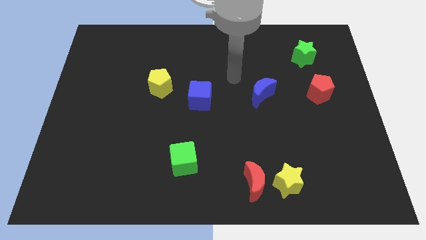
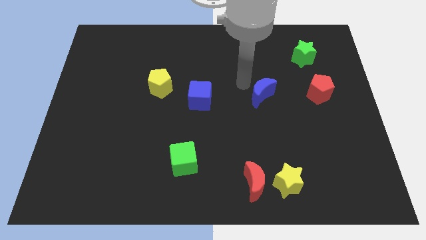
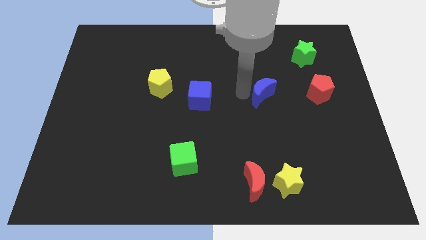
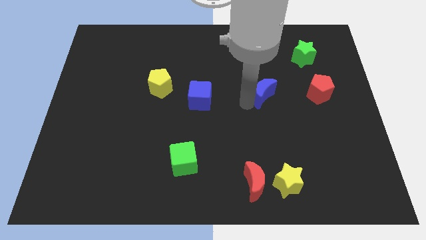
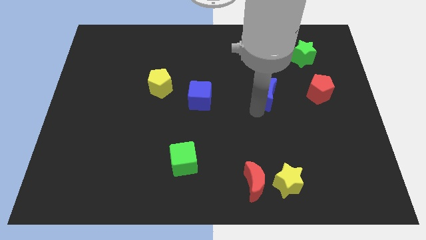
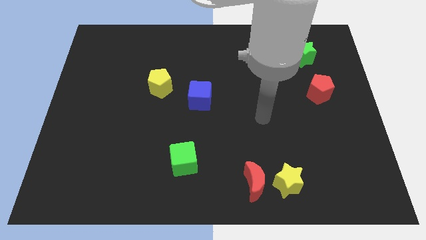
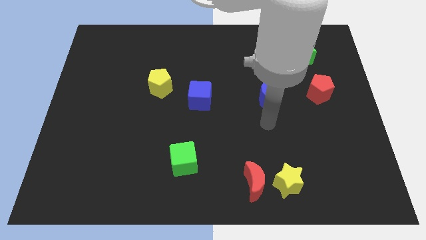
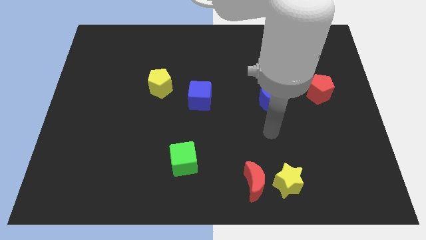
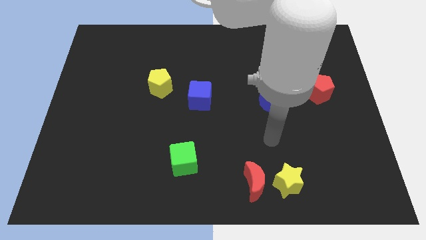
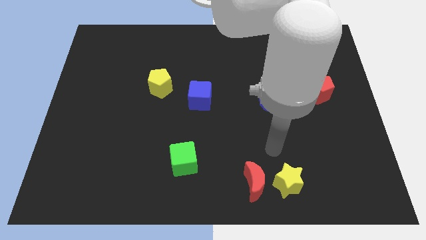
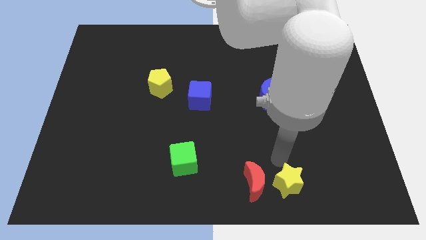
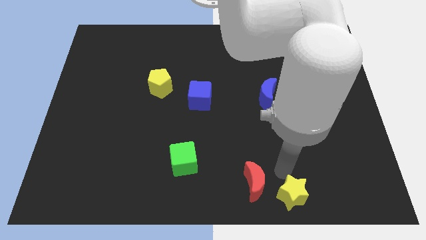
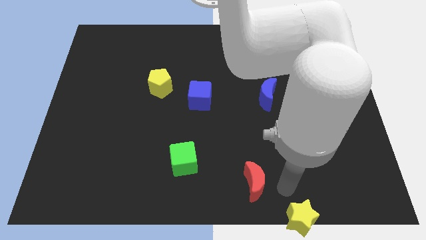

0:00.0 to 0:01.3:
move the red moon away from the yellow star

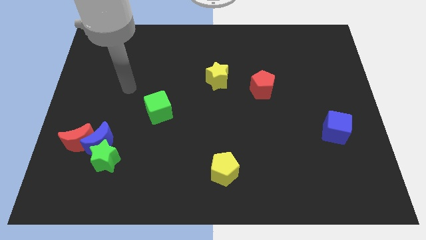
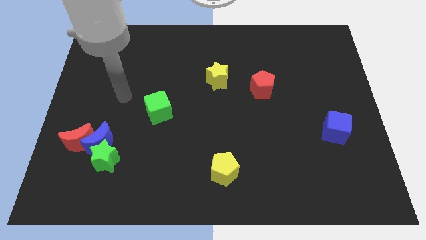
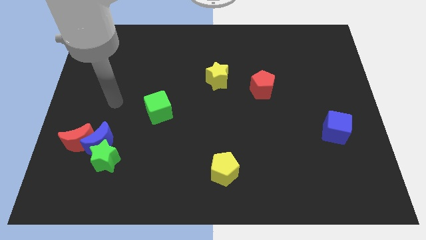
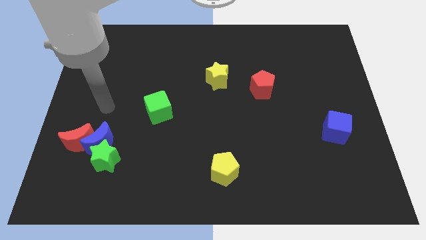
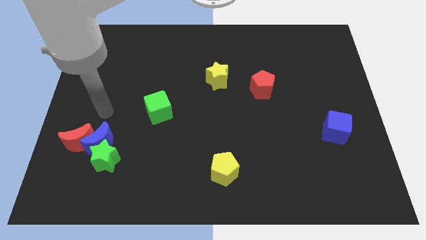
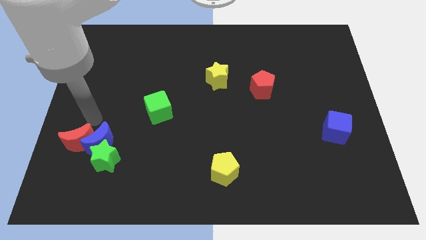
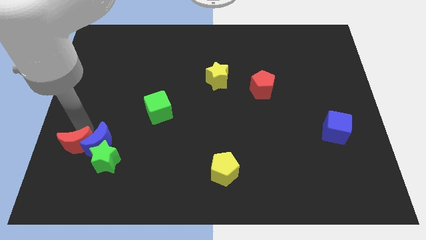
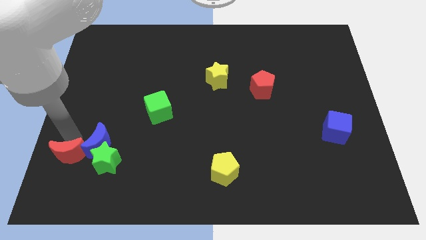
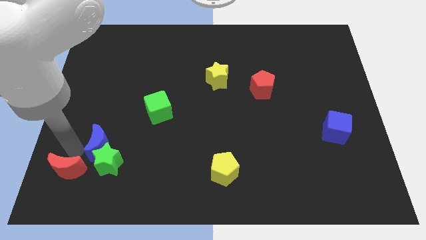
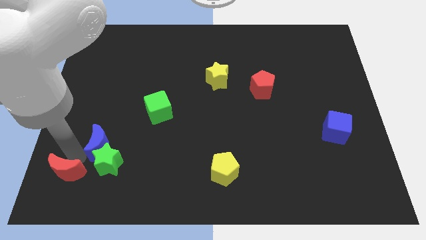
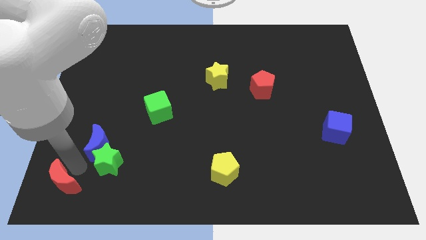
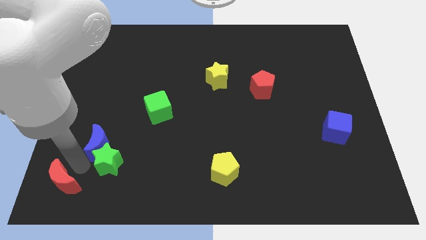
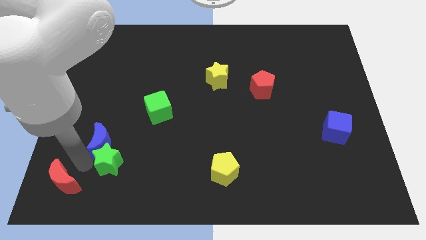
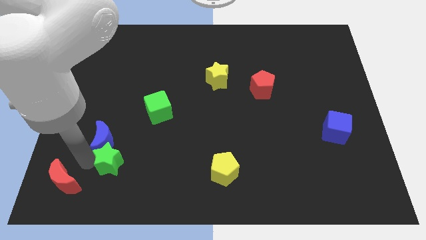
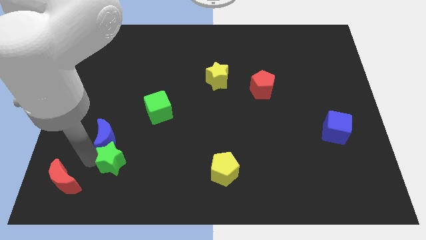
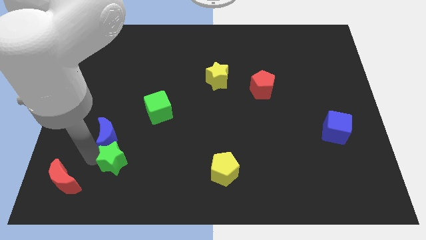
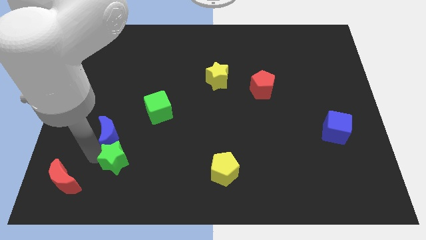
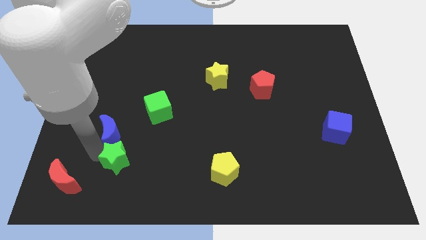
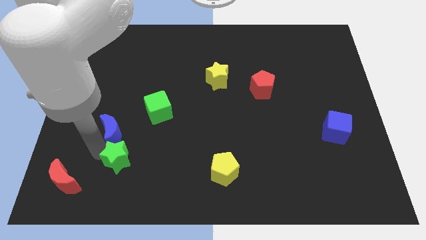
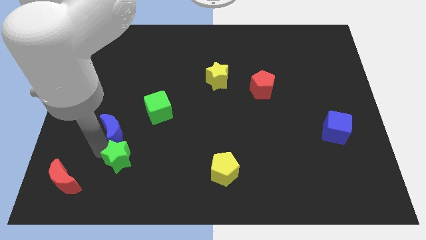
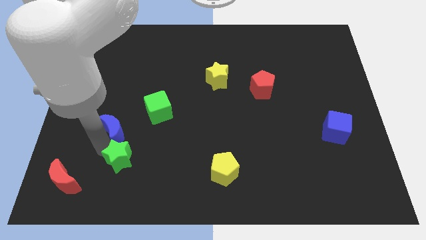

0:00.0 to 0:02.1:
separate the blue moon from the green star and red moon

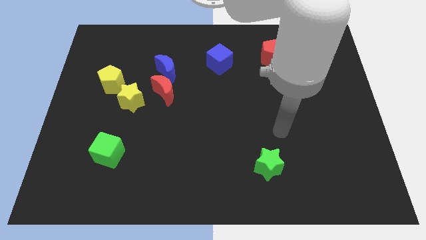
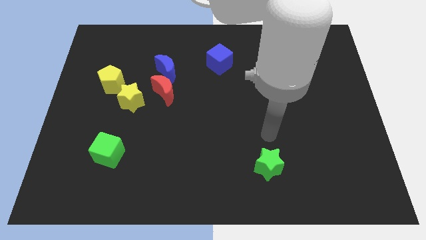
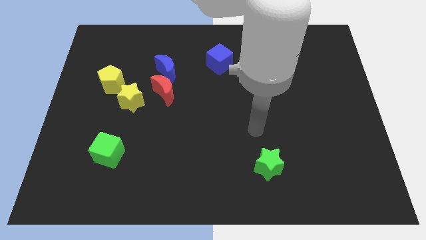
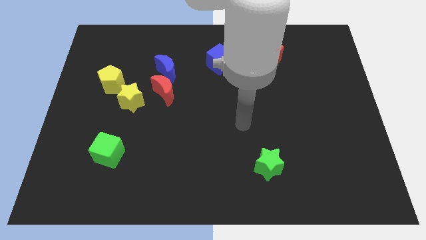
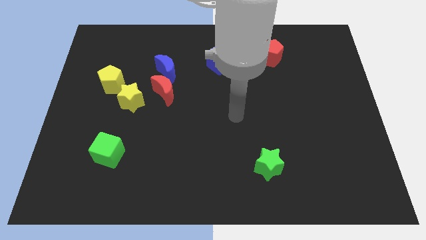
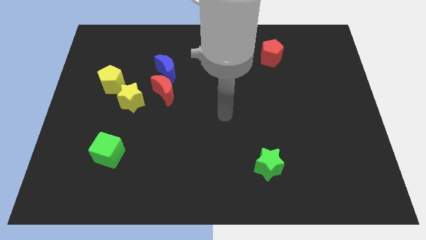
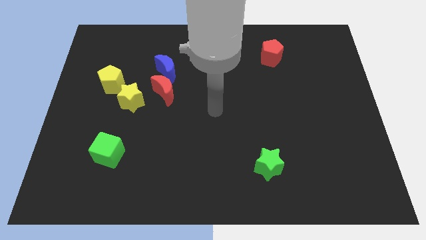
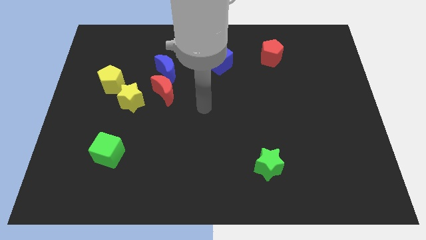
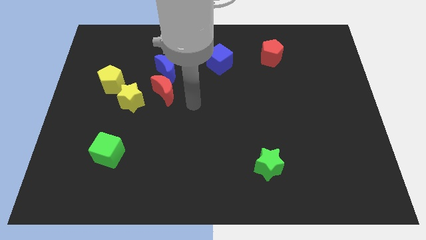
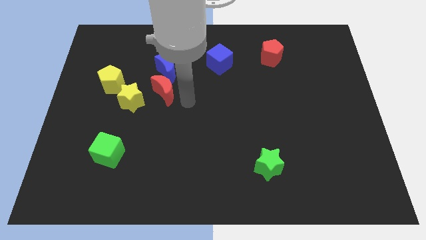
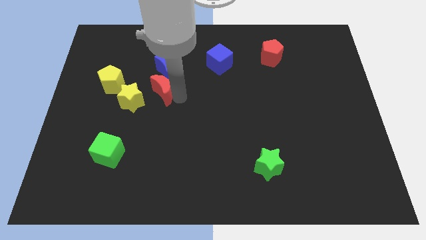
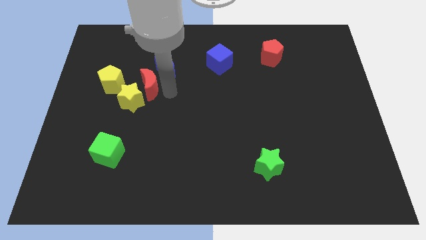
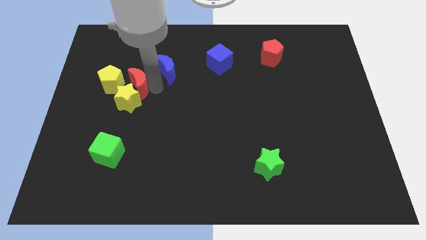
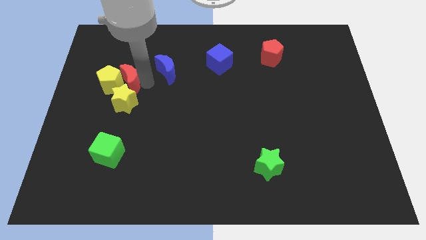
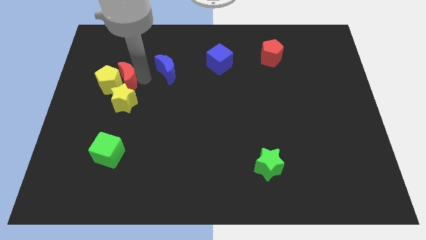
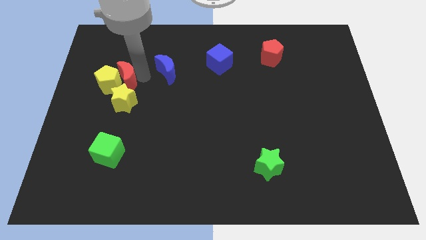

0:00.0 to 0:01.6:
move the blue moon away from the red moon

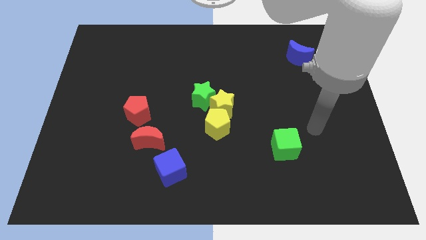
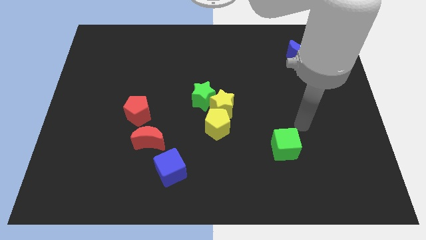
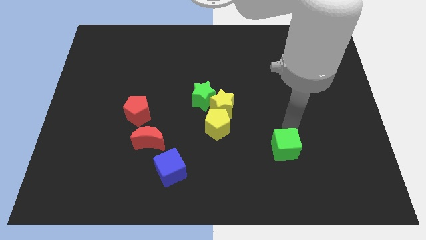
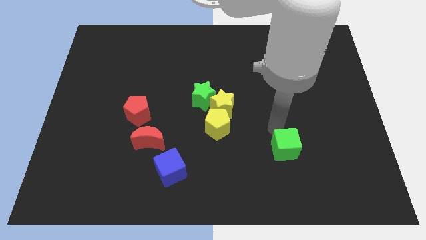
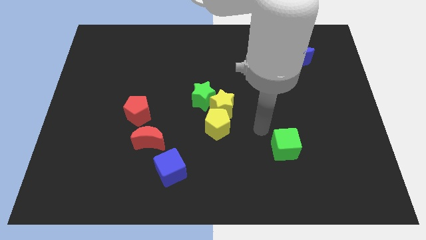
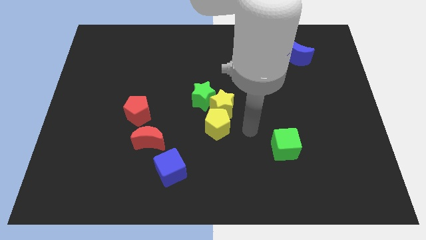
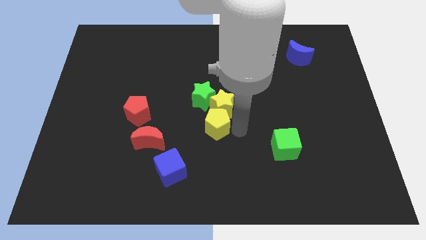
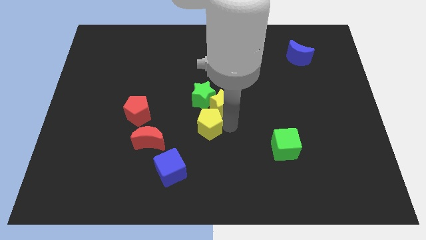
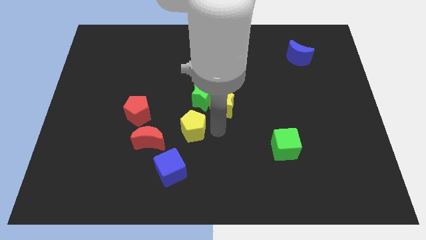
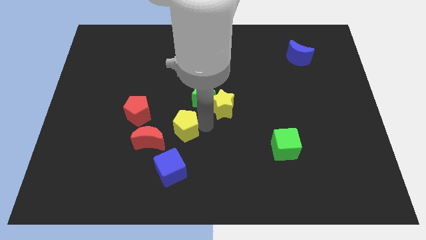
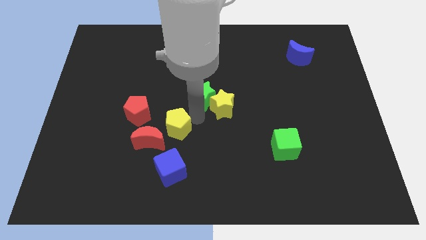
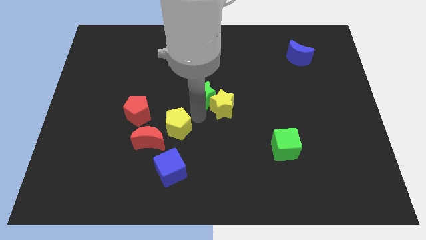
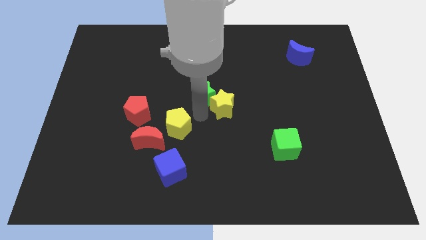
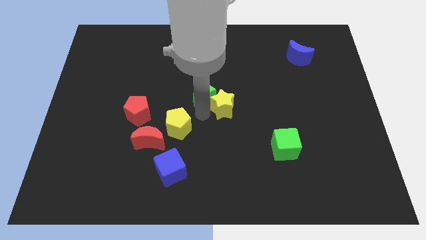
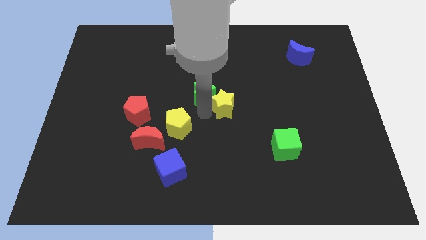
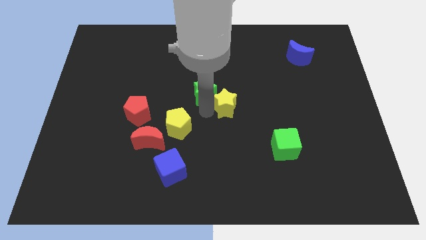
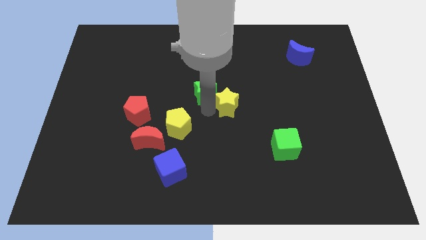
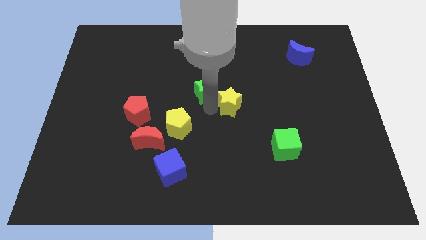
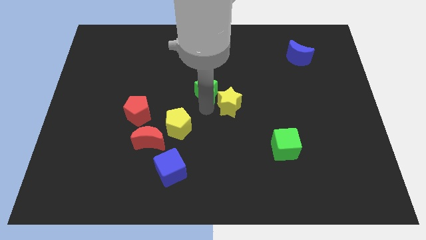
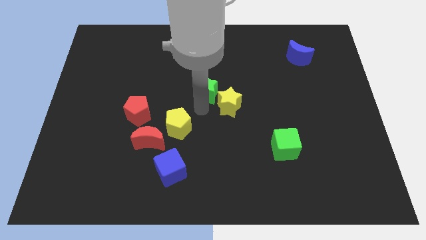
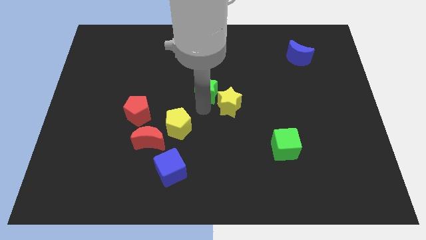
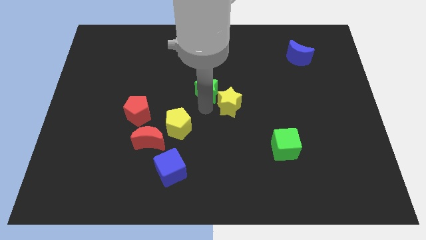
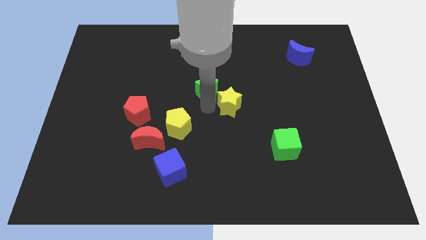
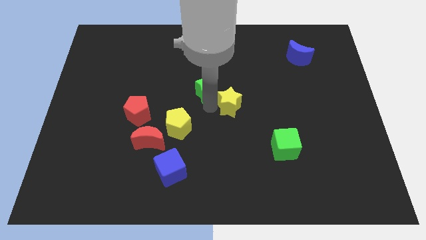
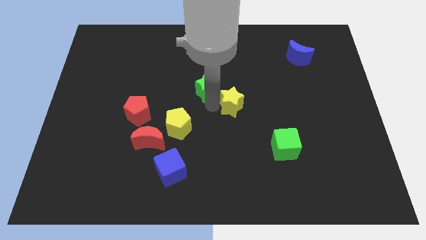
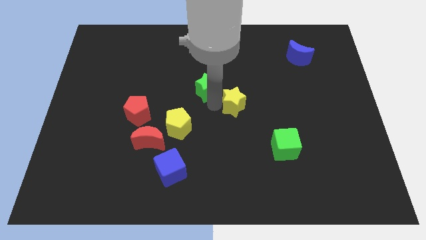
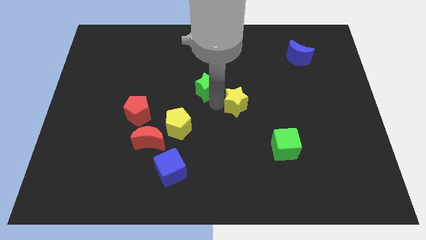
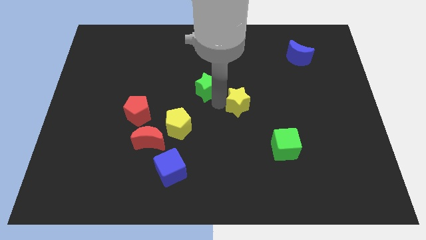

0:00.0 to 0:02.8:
separate the yellow star from the green star and yellow pentagon

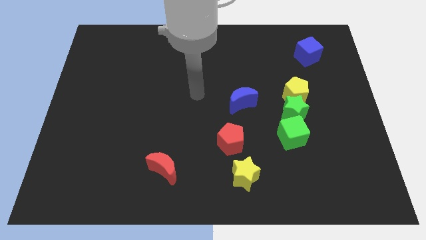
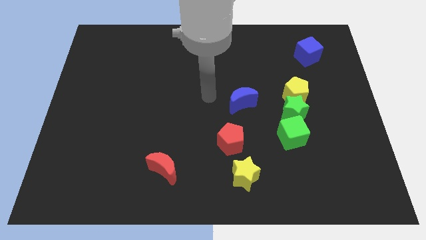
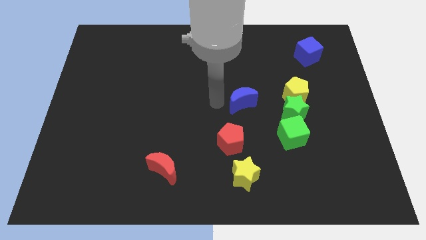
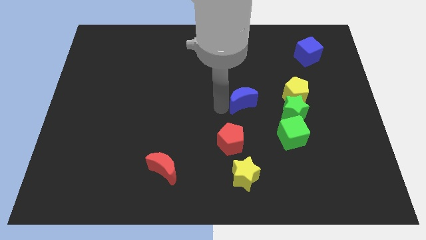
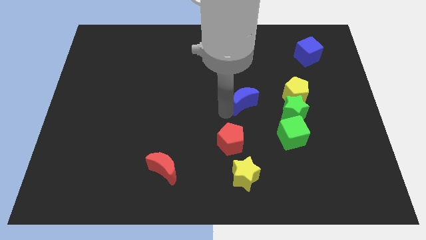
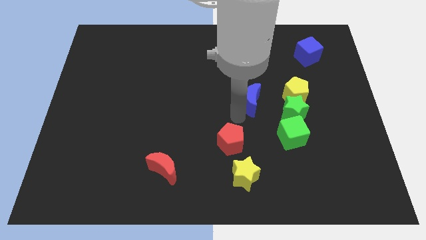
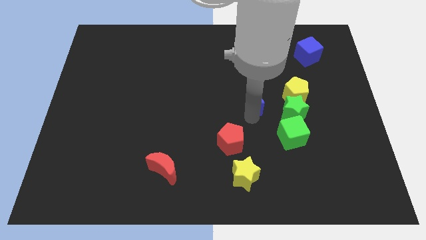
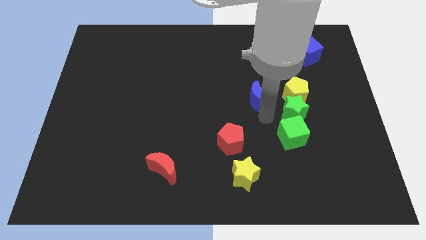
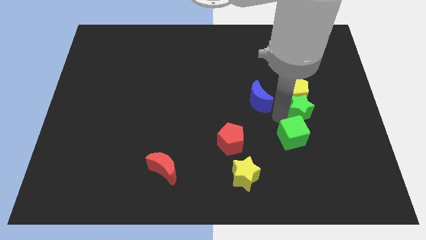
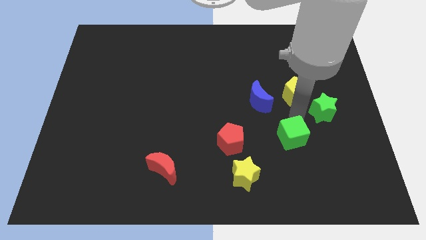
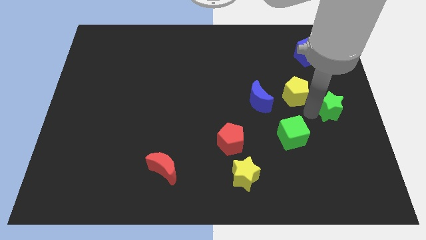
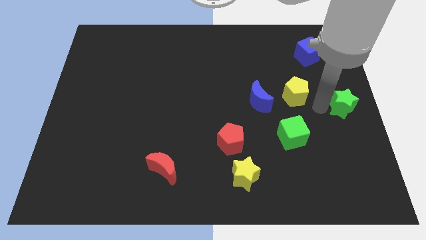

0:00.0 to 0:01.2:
move the yellow pentagon away from the green star

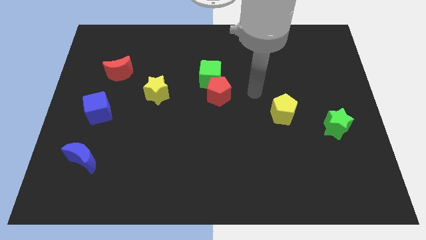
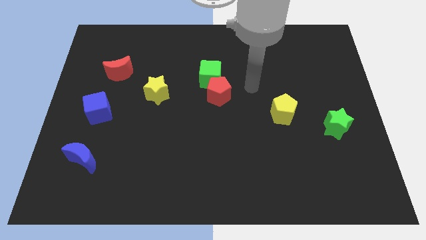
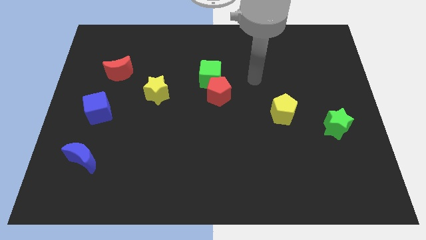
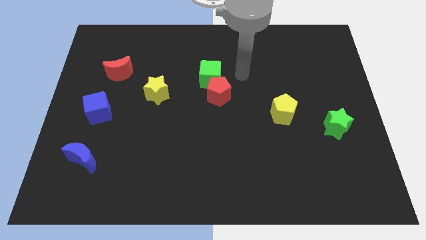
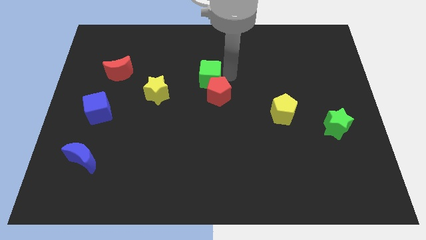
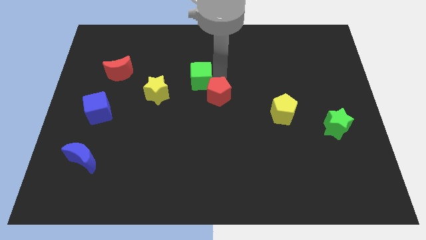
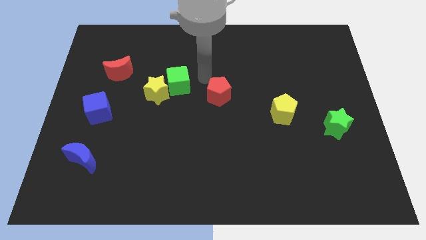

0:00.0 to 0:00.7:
separate the red pentagon from the green cube
